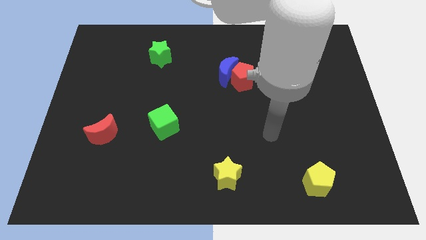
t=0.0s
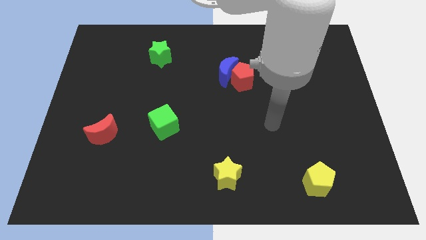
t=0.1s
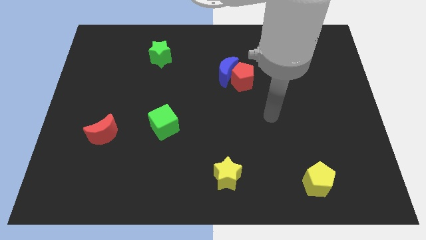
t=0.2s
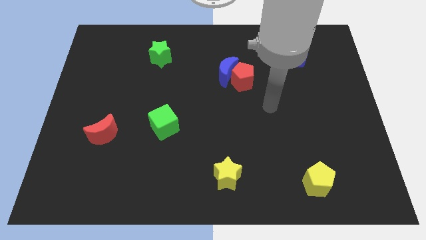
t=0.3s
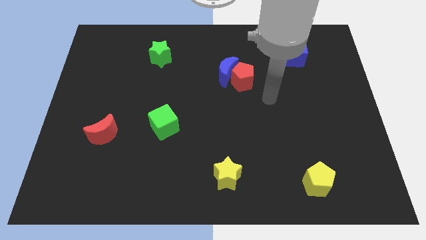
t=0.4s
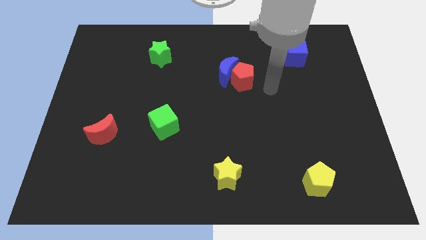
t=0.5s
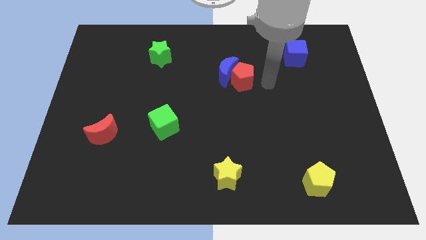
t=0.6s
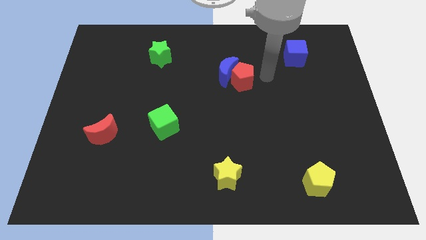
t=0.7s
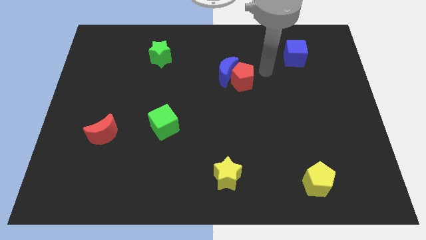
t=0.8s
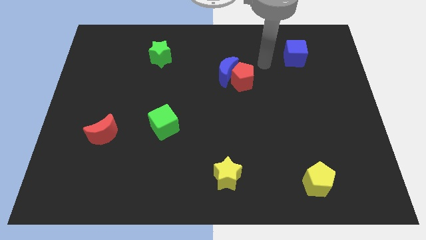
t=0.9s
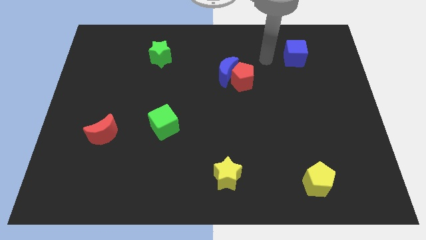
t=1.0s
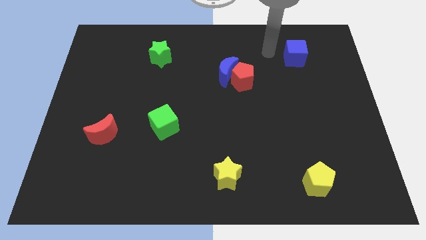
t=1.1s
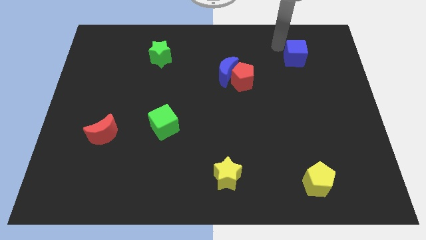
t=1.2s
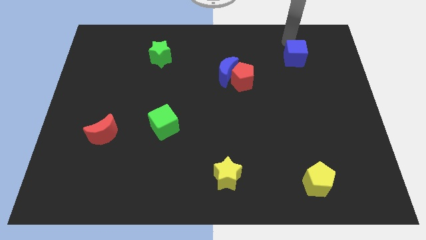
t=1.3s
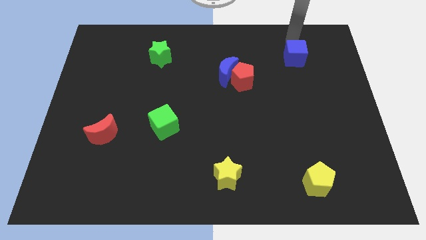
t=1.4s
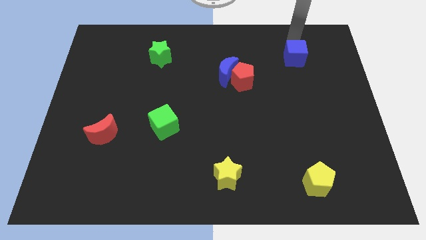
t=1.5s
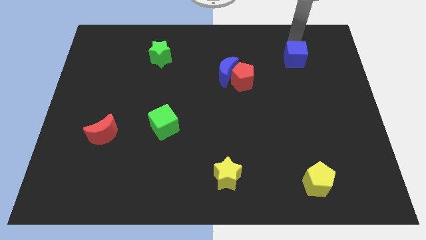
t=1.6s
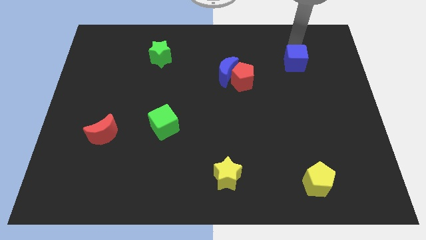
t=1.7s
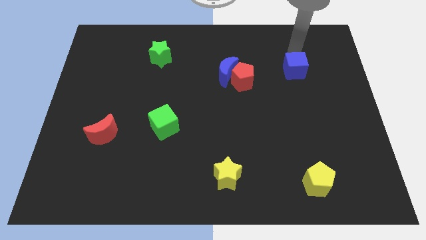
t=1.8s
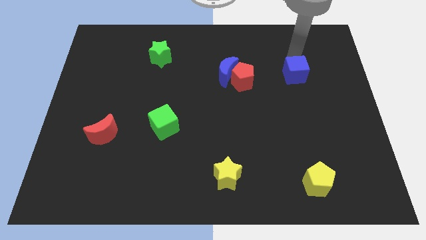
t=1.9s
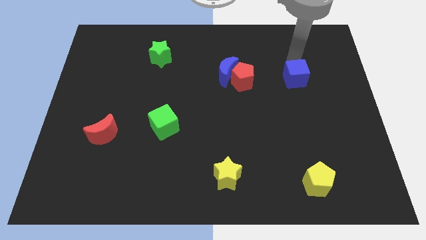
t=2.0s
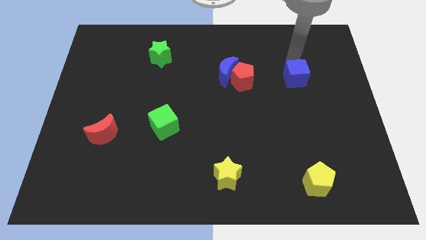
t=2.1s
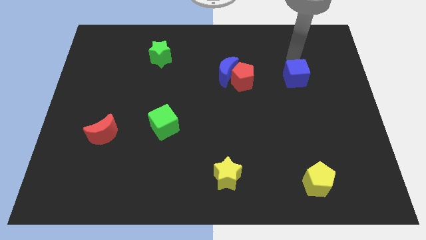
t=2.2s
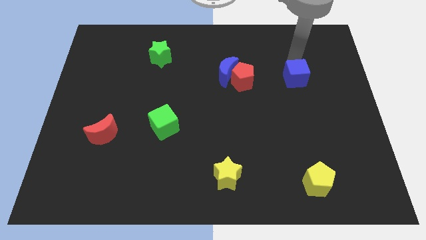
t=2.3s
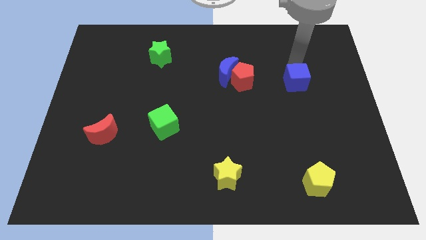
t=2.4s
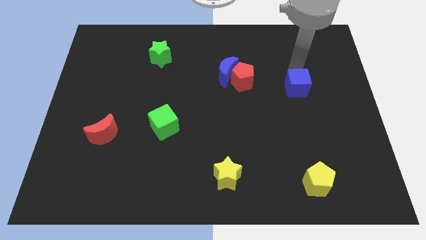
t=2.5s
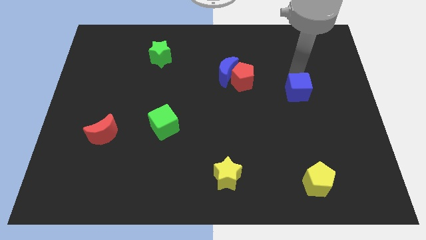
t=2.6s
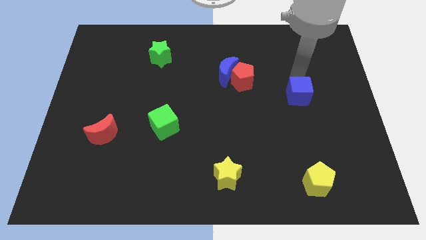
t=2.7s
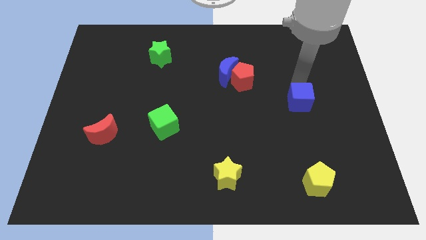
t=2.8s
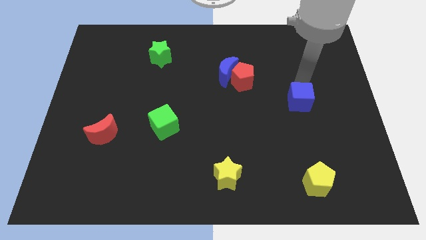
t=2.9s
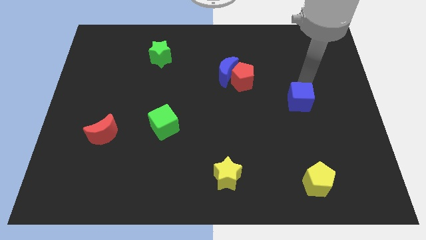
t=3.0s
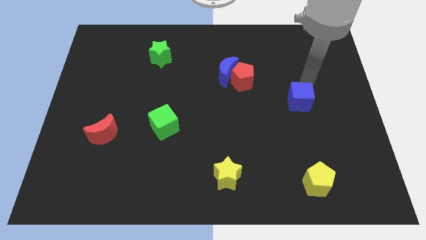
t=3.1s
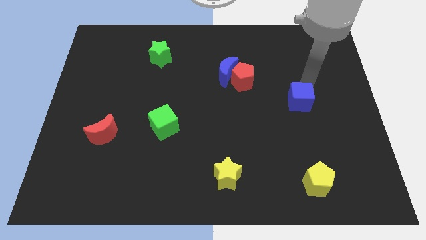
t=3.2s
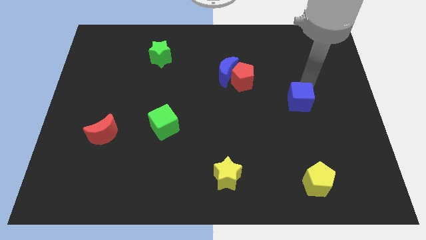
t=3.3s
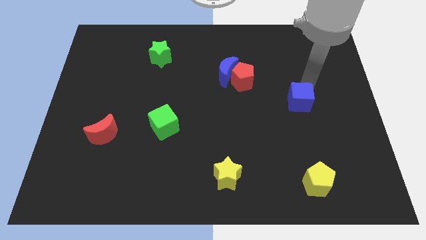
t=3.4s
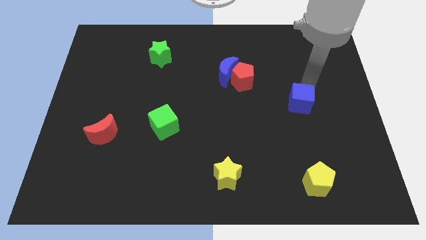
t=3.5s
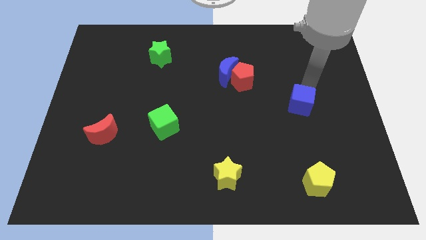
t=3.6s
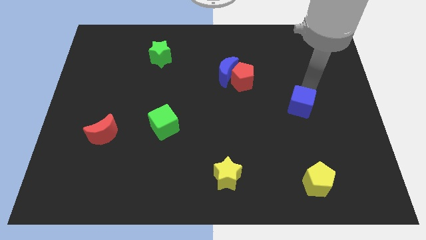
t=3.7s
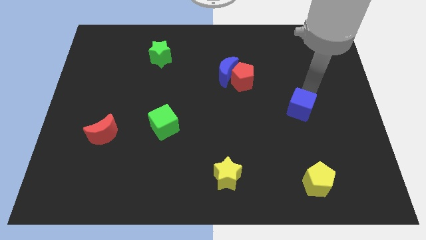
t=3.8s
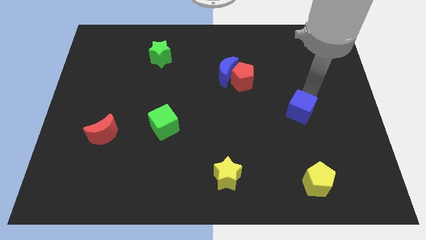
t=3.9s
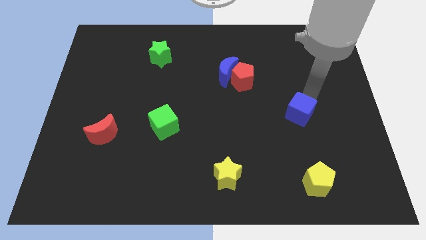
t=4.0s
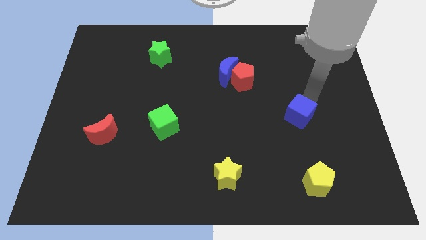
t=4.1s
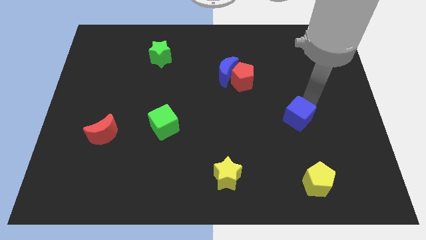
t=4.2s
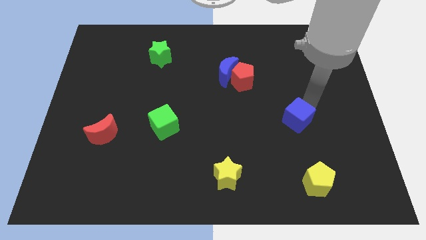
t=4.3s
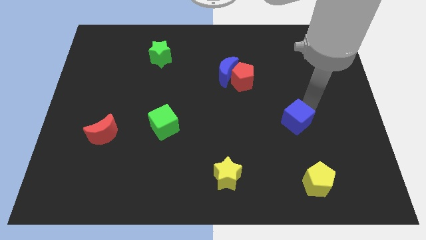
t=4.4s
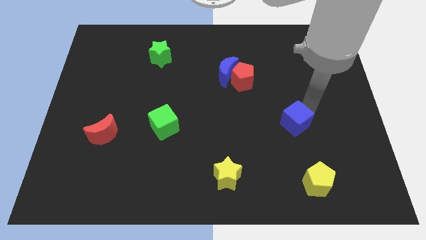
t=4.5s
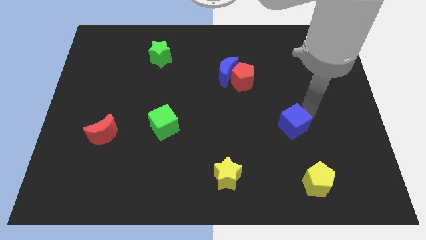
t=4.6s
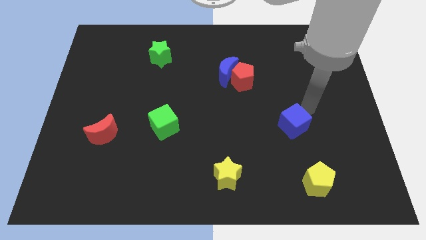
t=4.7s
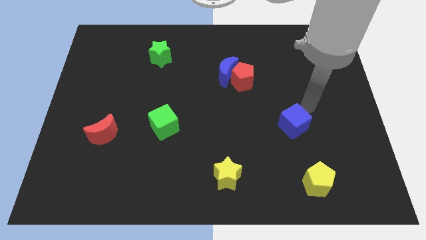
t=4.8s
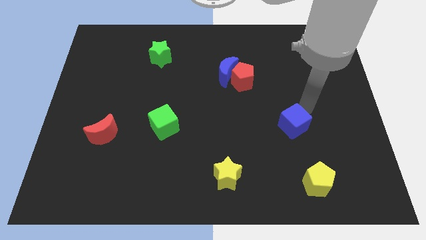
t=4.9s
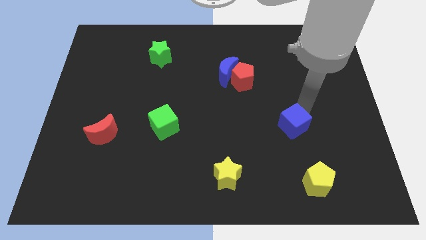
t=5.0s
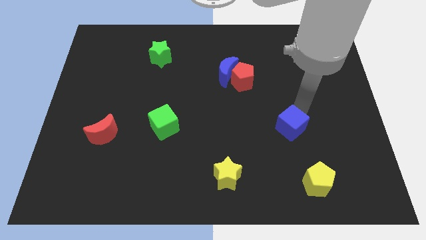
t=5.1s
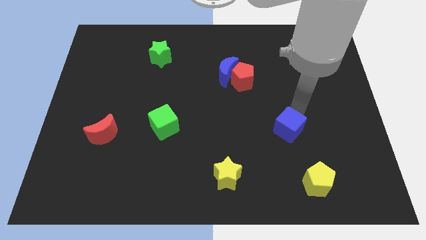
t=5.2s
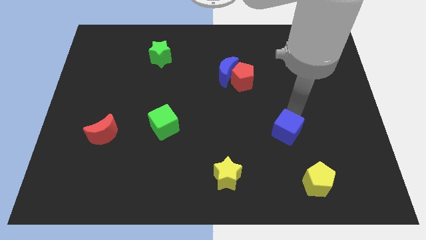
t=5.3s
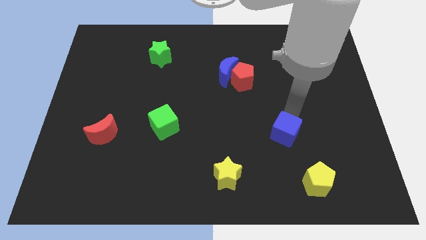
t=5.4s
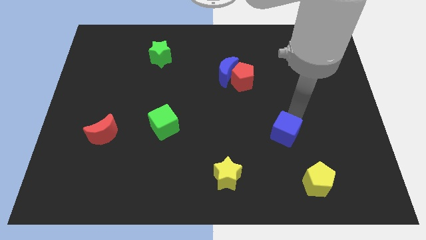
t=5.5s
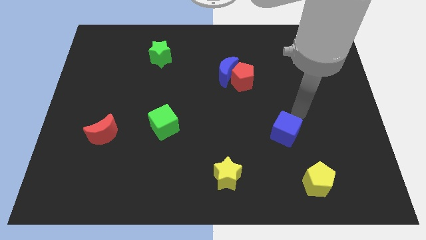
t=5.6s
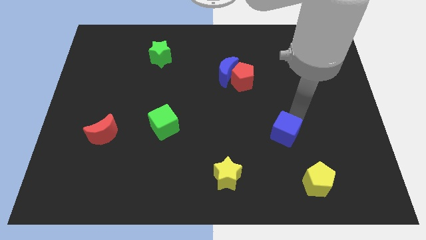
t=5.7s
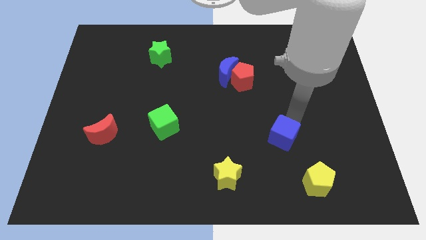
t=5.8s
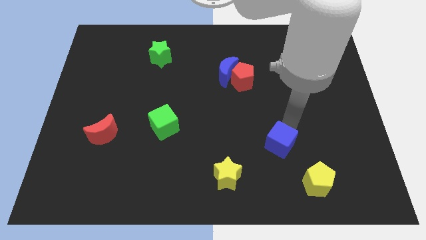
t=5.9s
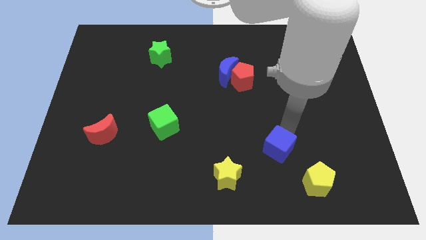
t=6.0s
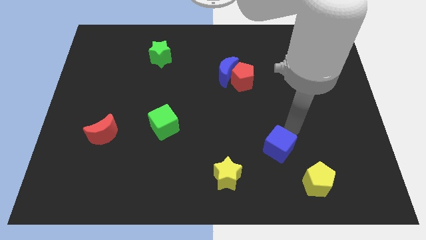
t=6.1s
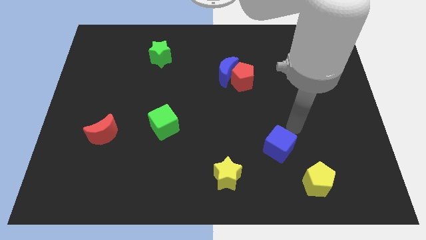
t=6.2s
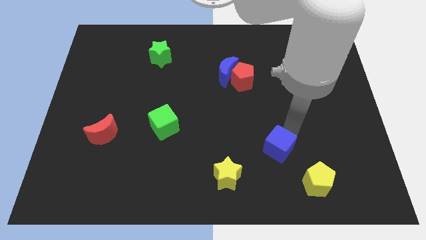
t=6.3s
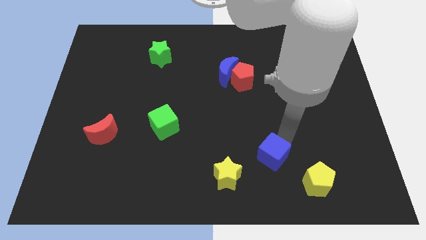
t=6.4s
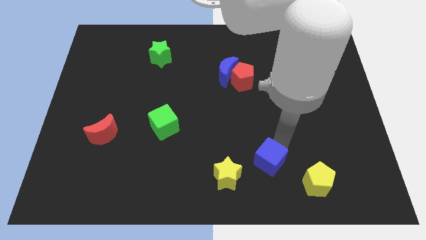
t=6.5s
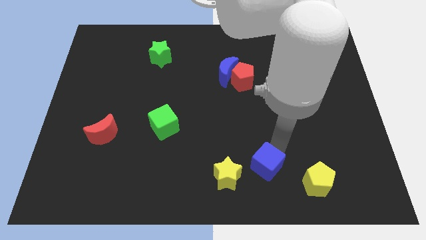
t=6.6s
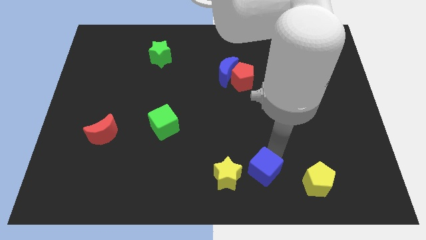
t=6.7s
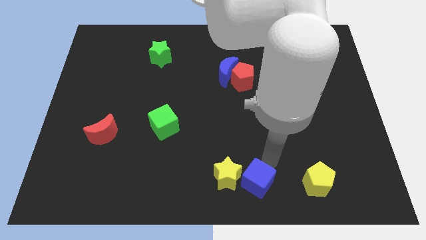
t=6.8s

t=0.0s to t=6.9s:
push the blue cube to the bottom
